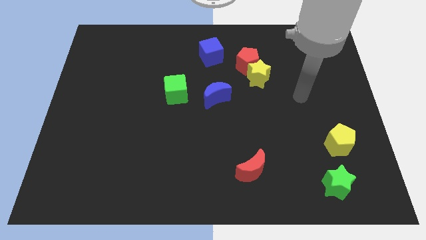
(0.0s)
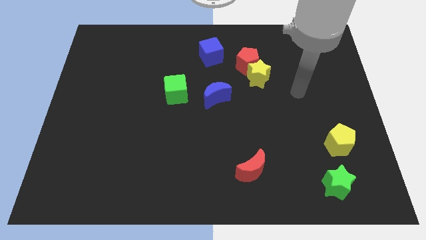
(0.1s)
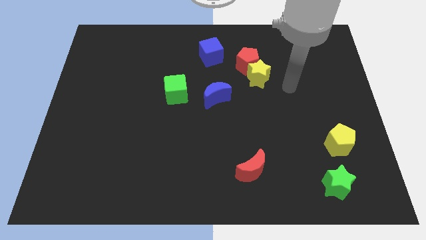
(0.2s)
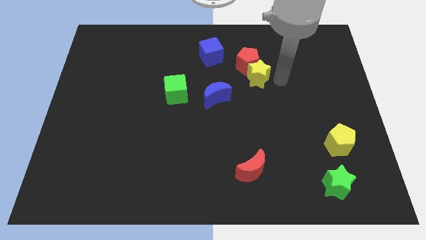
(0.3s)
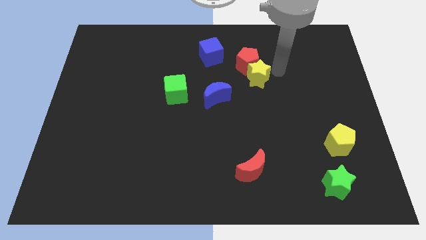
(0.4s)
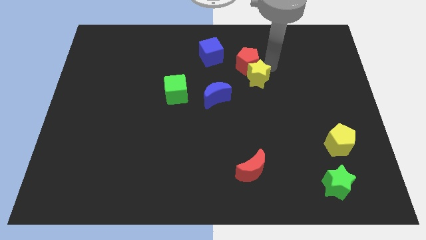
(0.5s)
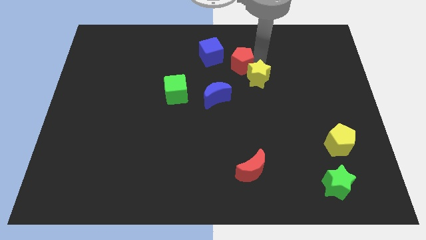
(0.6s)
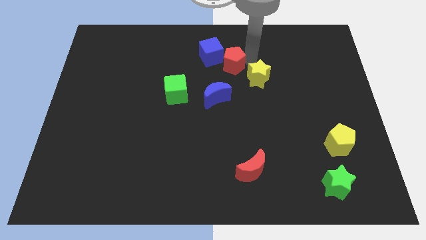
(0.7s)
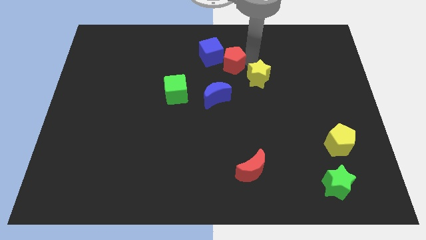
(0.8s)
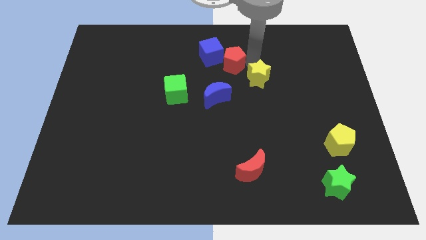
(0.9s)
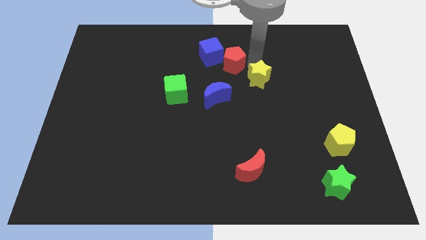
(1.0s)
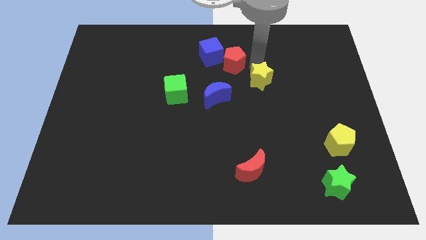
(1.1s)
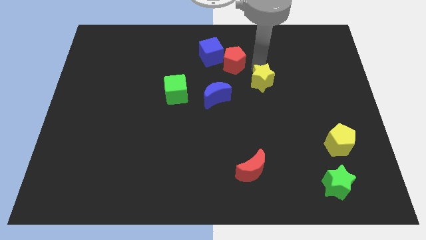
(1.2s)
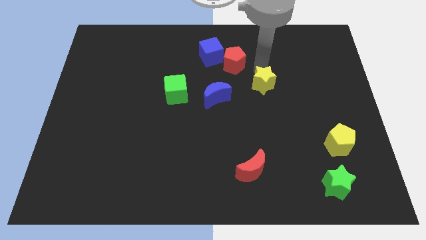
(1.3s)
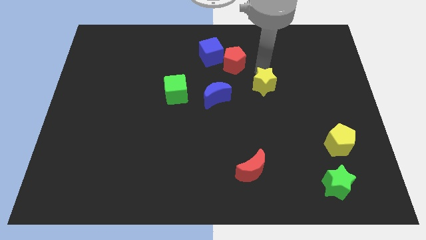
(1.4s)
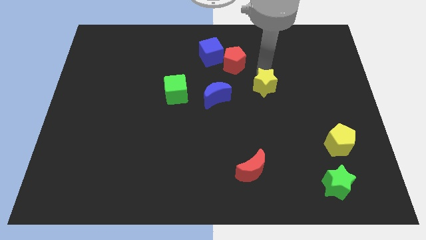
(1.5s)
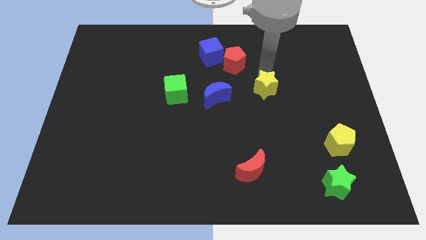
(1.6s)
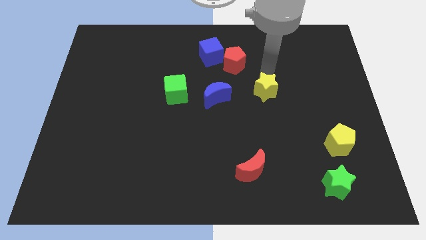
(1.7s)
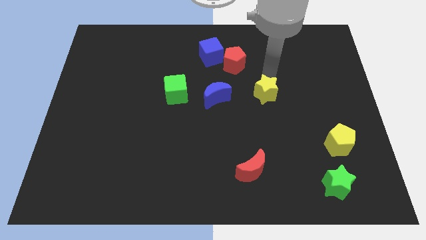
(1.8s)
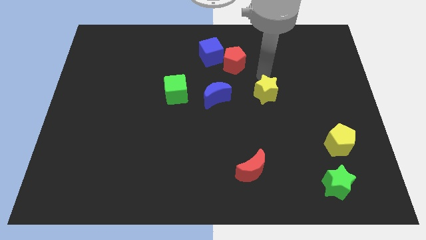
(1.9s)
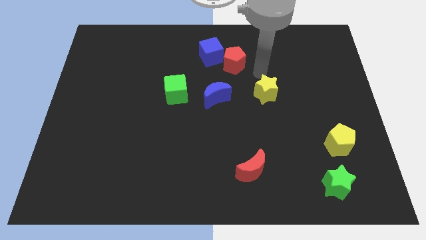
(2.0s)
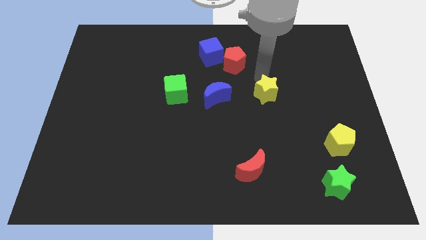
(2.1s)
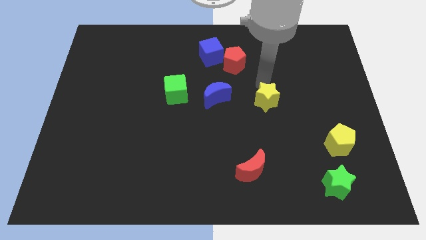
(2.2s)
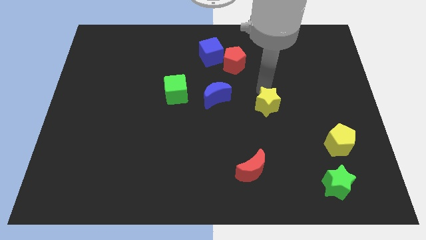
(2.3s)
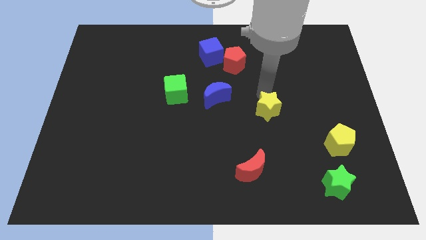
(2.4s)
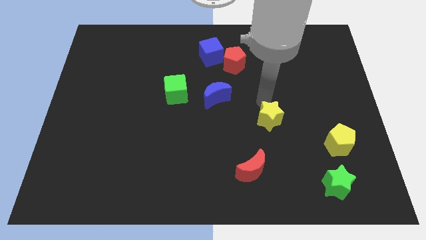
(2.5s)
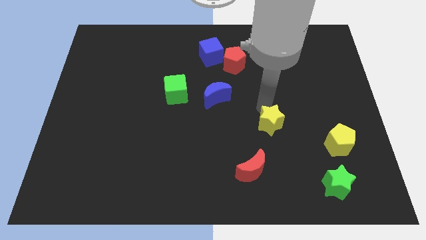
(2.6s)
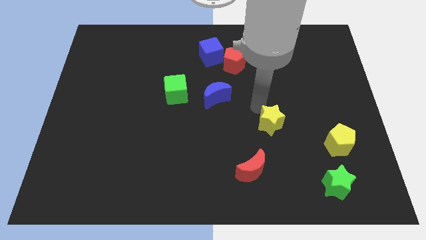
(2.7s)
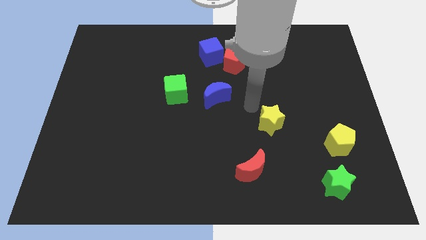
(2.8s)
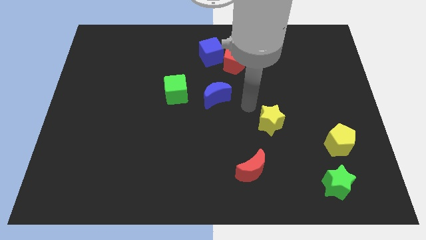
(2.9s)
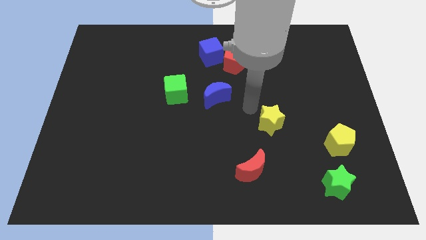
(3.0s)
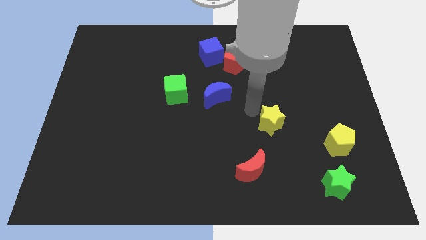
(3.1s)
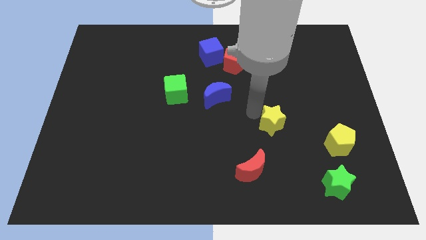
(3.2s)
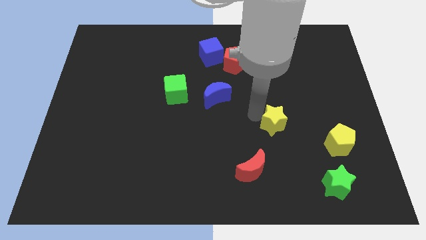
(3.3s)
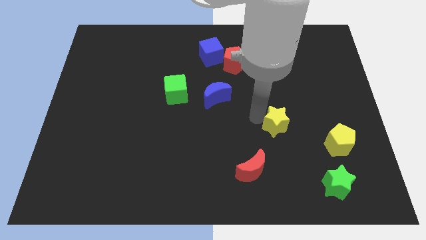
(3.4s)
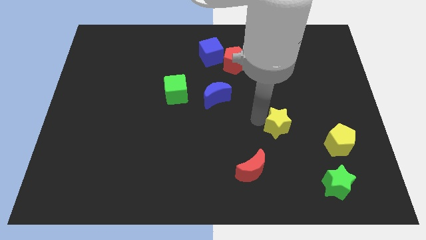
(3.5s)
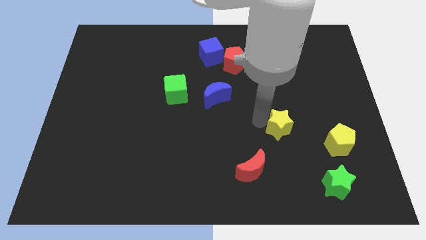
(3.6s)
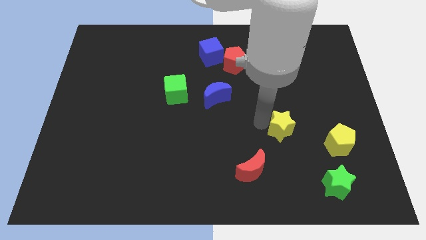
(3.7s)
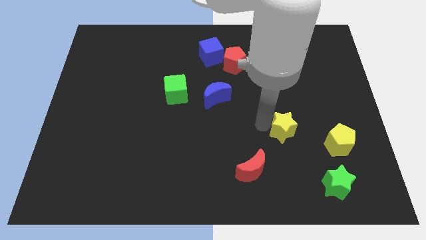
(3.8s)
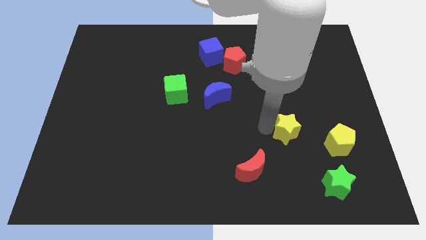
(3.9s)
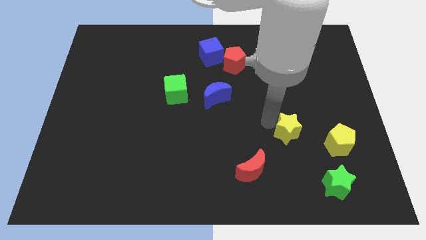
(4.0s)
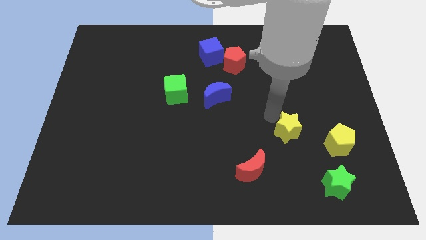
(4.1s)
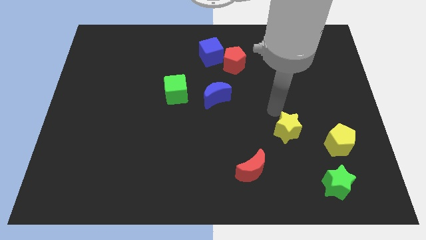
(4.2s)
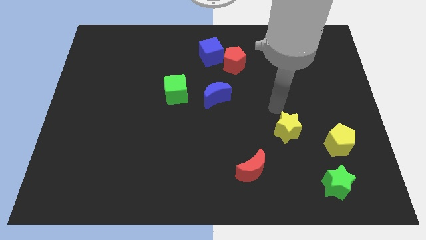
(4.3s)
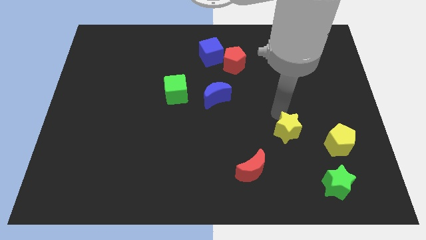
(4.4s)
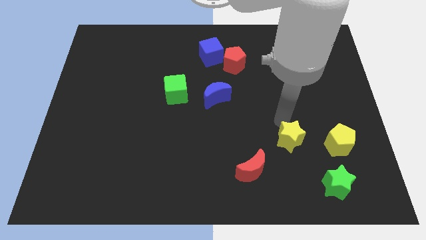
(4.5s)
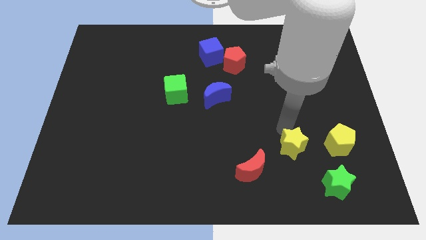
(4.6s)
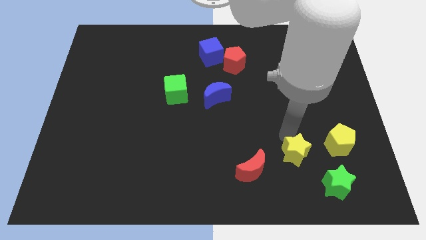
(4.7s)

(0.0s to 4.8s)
move the yellow star just right of the red moon

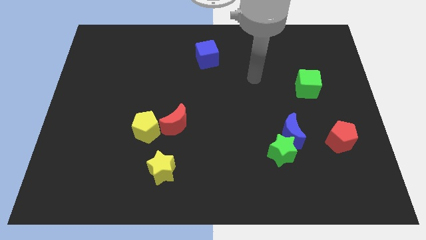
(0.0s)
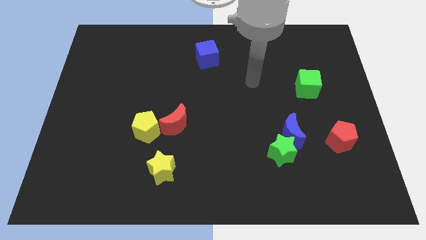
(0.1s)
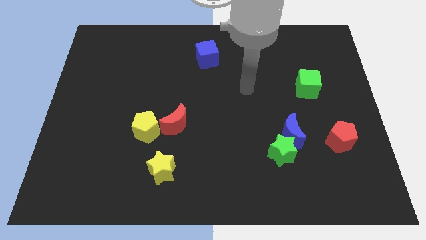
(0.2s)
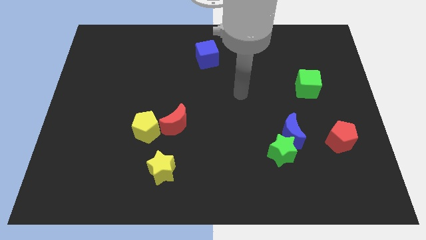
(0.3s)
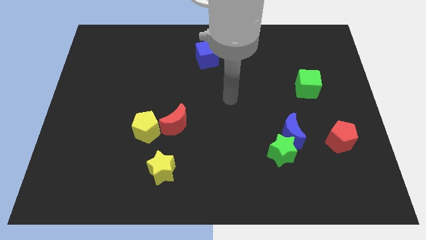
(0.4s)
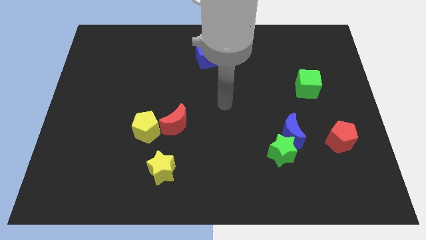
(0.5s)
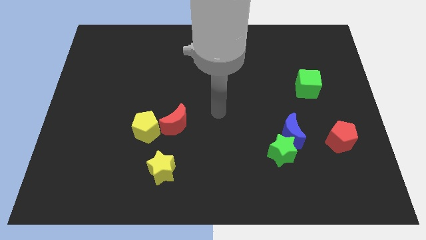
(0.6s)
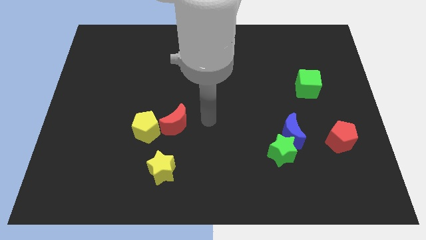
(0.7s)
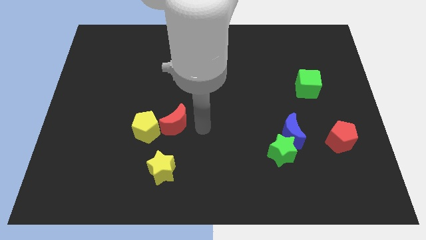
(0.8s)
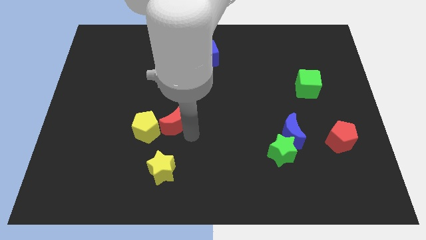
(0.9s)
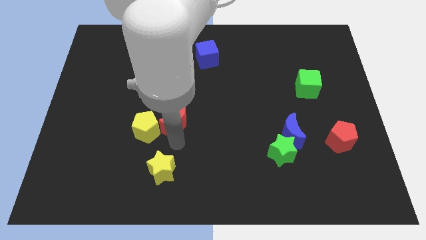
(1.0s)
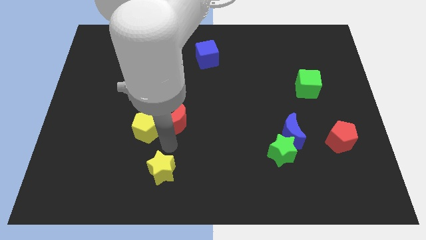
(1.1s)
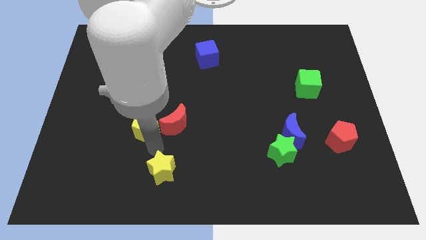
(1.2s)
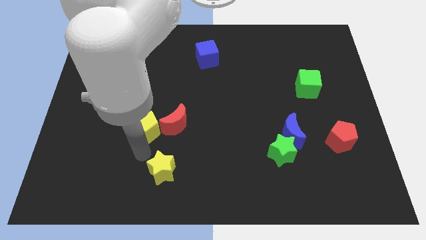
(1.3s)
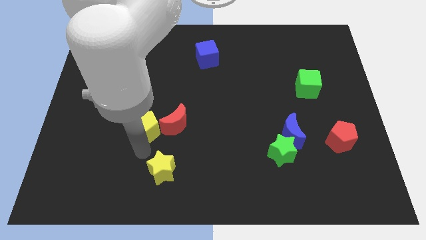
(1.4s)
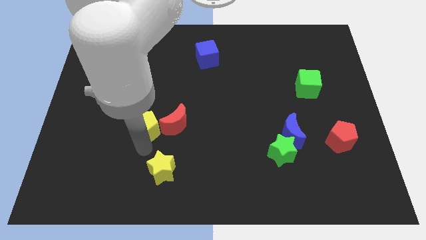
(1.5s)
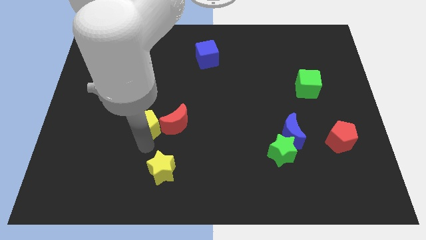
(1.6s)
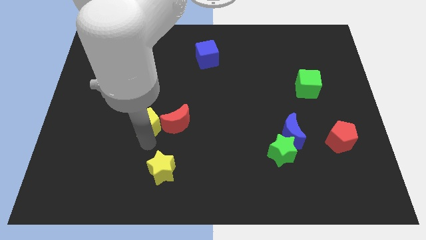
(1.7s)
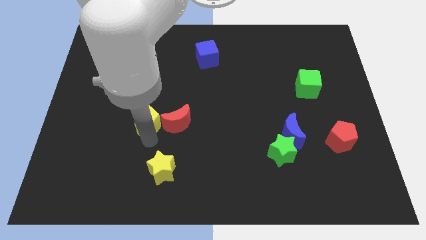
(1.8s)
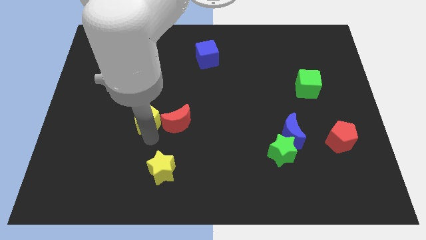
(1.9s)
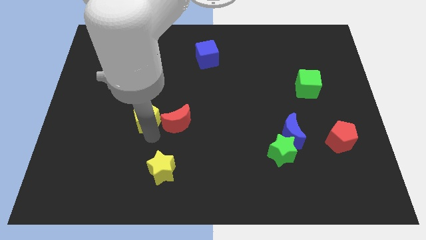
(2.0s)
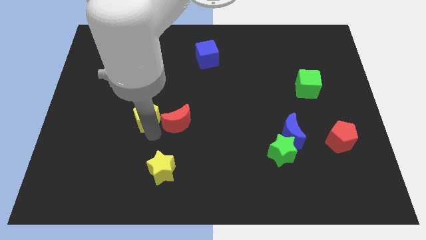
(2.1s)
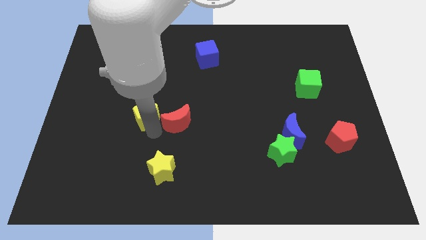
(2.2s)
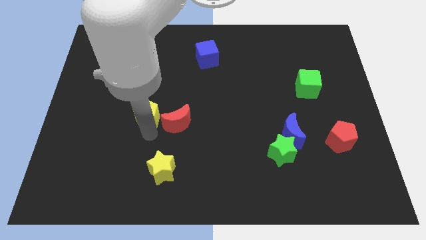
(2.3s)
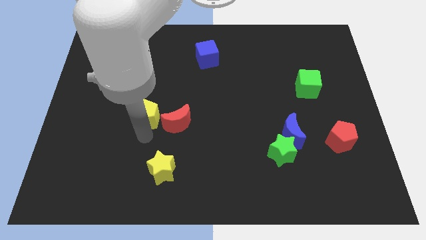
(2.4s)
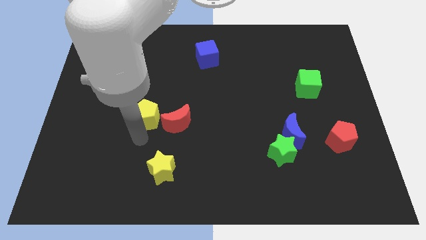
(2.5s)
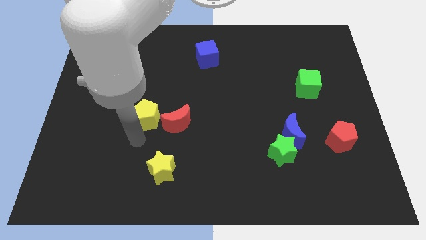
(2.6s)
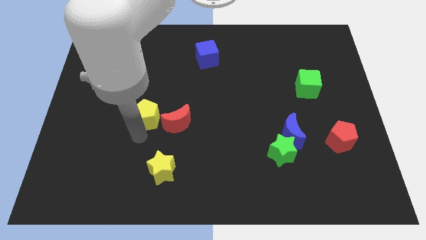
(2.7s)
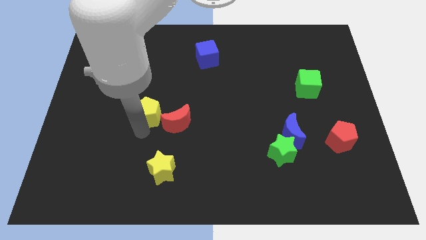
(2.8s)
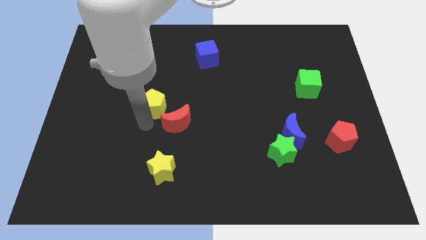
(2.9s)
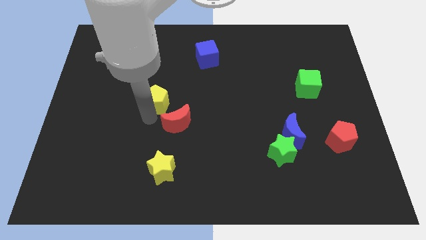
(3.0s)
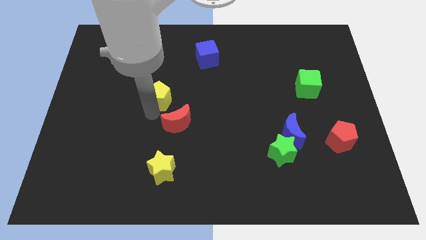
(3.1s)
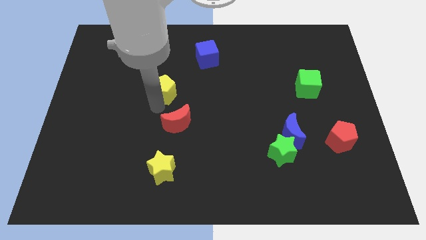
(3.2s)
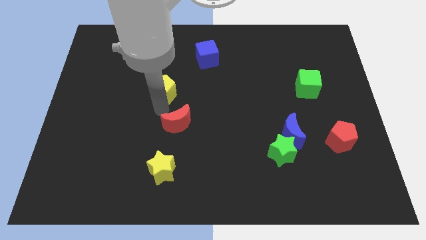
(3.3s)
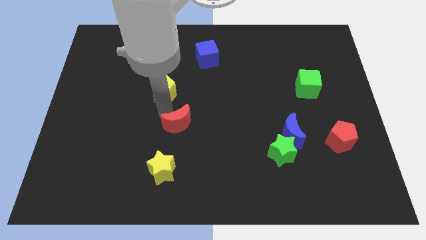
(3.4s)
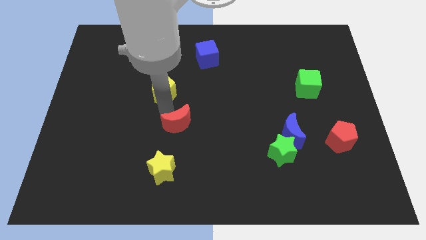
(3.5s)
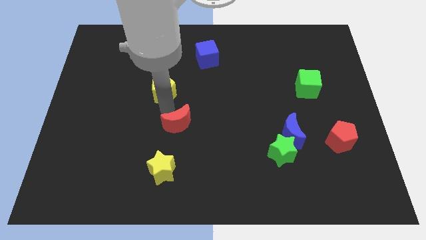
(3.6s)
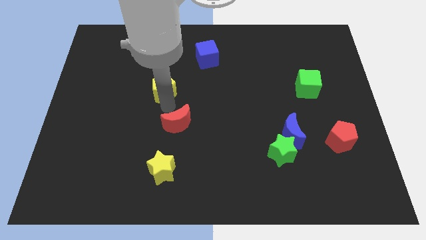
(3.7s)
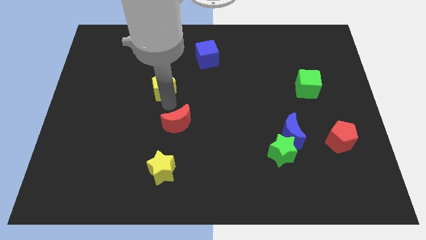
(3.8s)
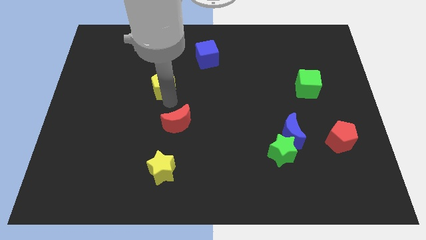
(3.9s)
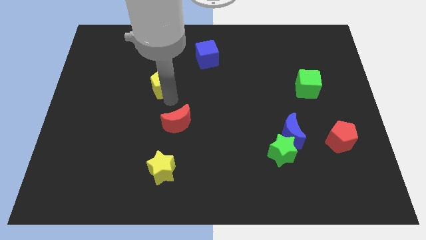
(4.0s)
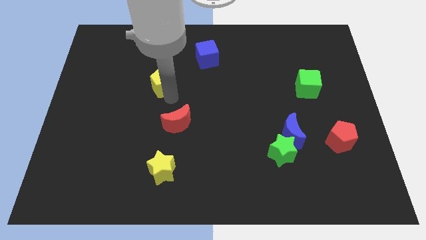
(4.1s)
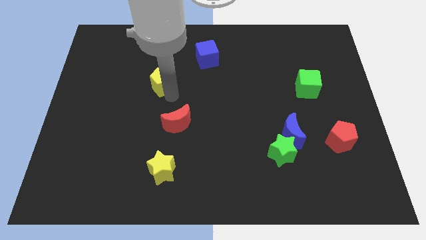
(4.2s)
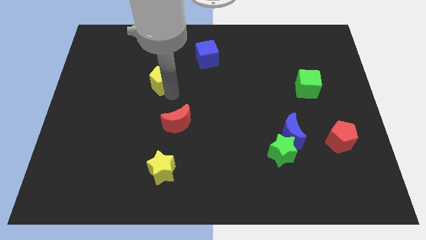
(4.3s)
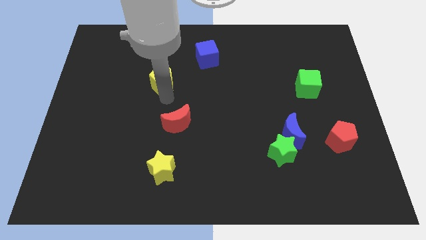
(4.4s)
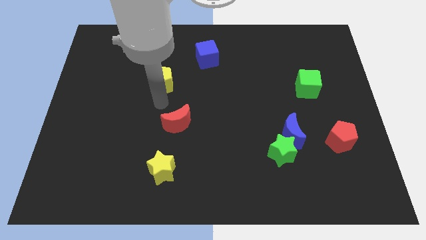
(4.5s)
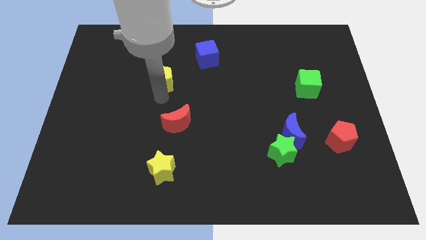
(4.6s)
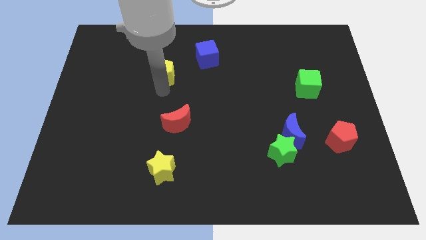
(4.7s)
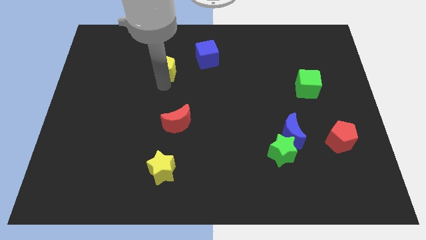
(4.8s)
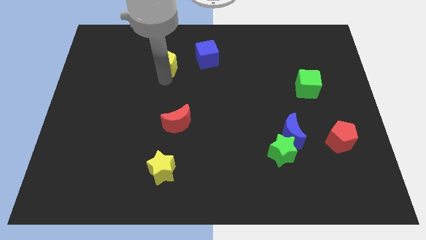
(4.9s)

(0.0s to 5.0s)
move the yellow pentagon to the left of the blue cube
